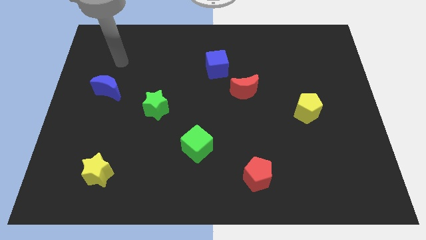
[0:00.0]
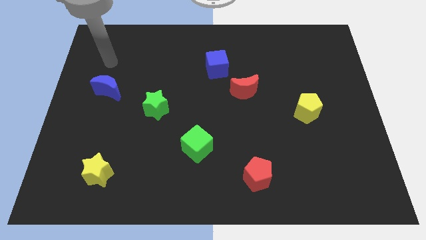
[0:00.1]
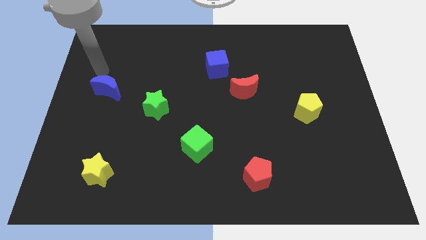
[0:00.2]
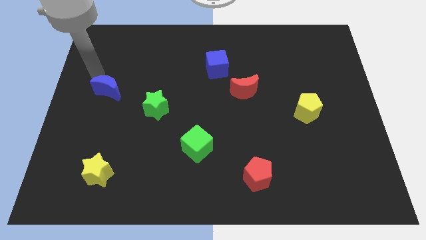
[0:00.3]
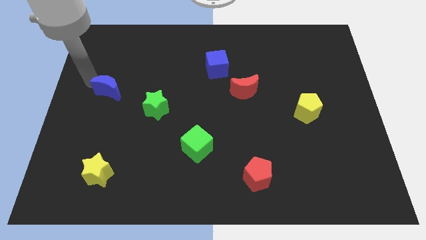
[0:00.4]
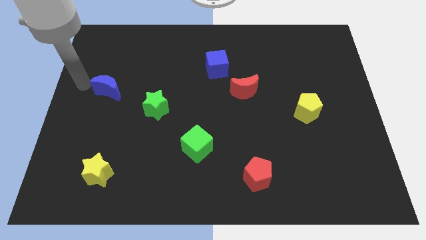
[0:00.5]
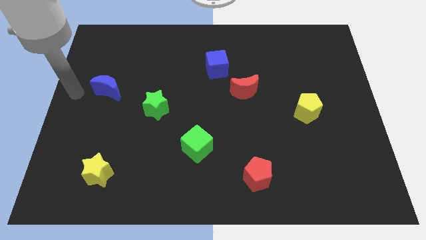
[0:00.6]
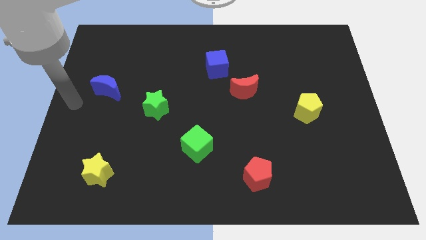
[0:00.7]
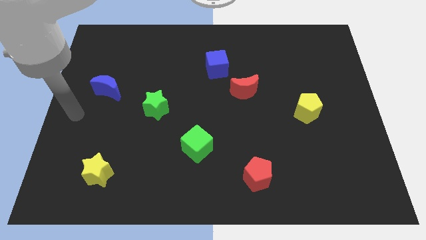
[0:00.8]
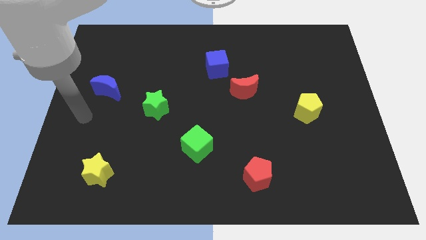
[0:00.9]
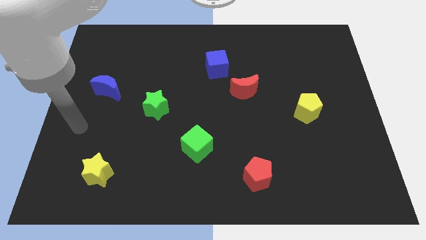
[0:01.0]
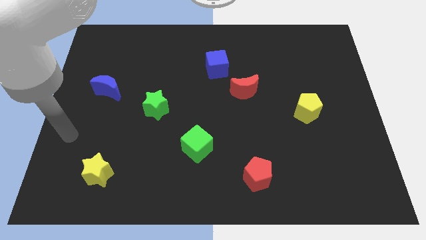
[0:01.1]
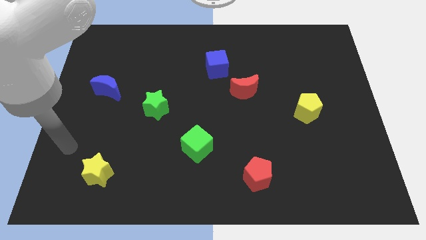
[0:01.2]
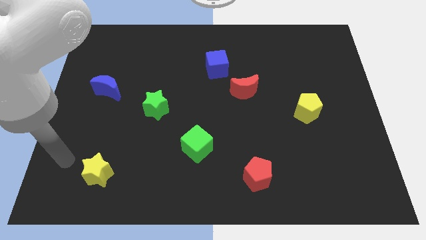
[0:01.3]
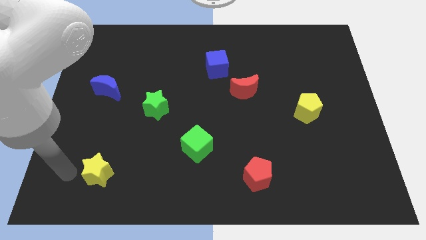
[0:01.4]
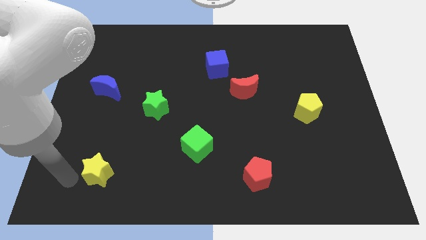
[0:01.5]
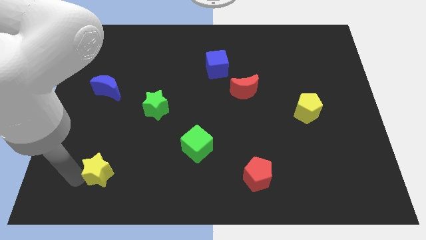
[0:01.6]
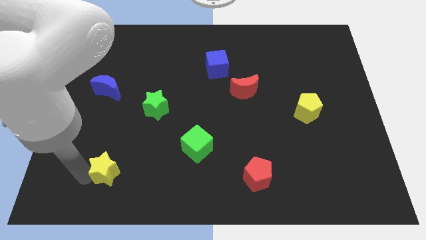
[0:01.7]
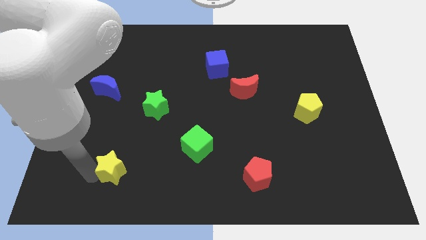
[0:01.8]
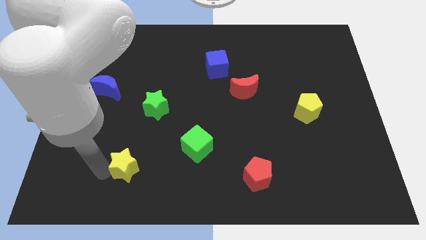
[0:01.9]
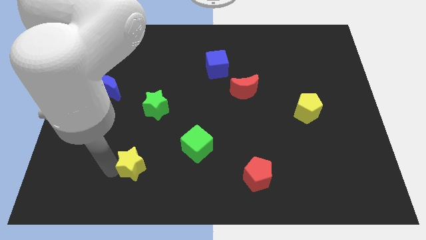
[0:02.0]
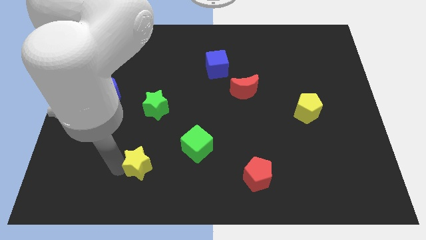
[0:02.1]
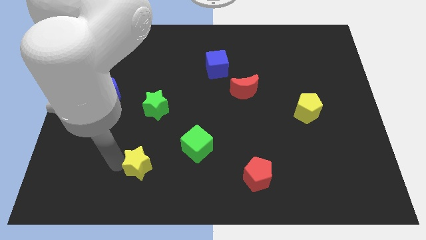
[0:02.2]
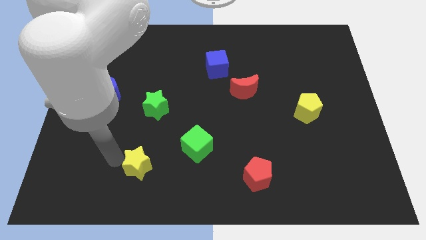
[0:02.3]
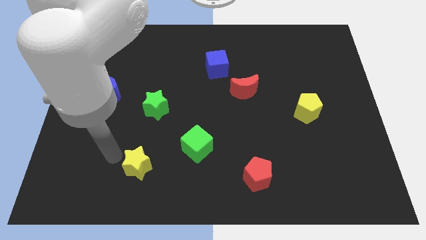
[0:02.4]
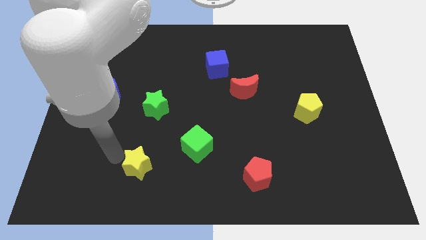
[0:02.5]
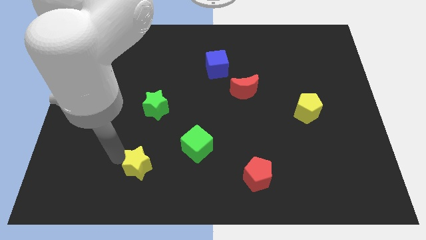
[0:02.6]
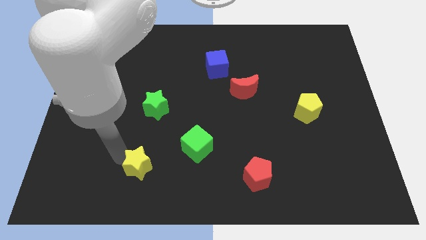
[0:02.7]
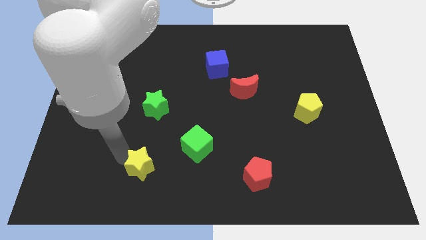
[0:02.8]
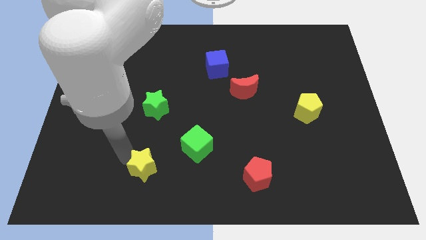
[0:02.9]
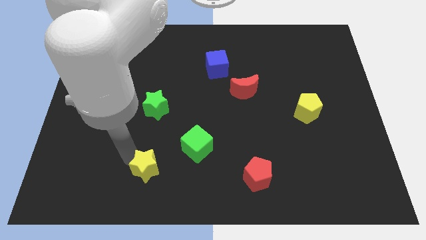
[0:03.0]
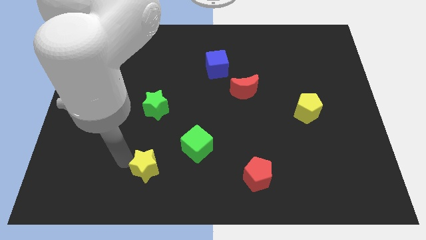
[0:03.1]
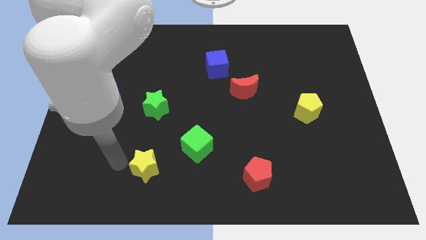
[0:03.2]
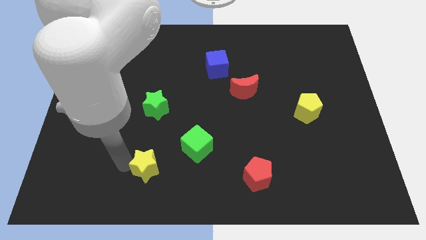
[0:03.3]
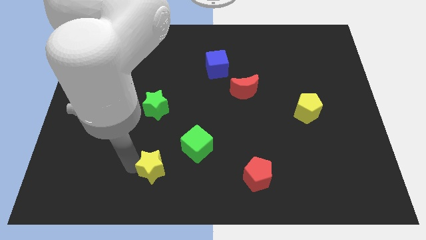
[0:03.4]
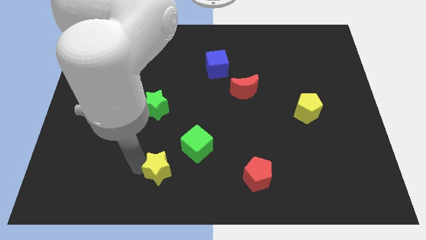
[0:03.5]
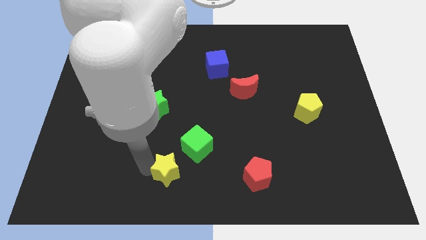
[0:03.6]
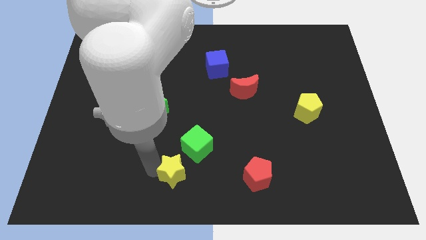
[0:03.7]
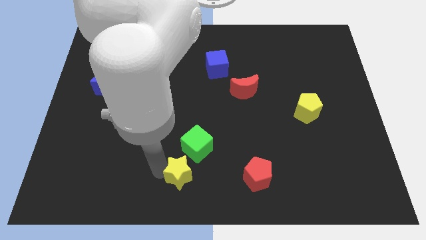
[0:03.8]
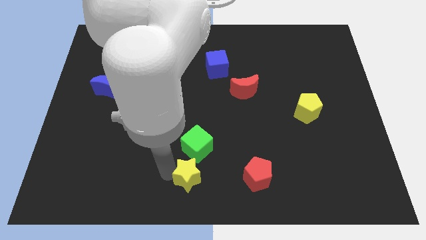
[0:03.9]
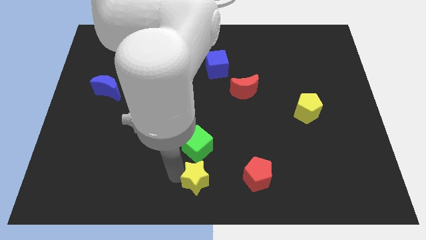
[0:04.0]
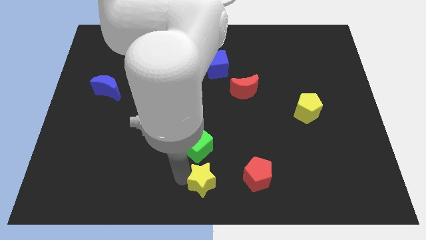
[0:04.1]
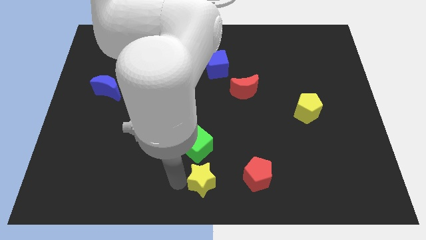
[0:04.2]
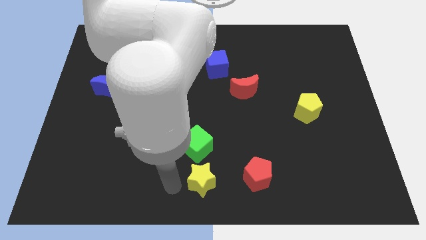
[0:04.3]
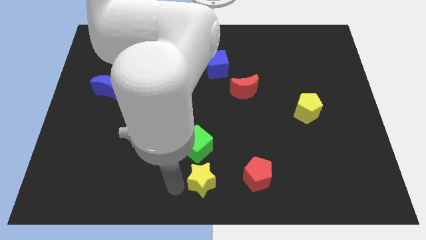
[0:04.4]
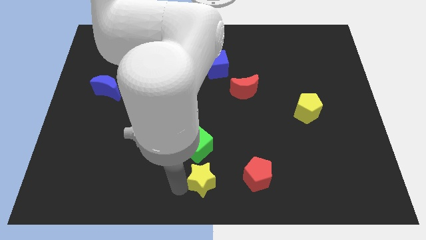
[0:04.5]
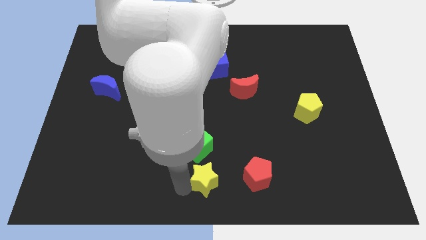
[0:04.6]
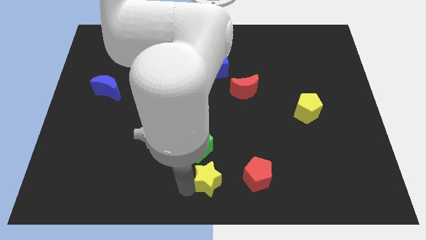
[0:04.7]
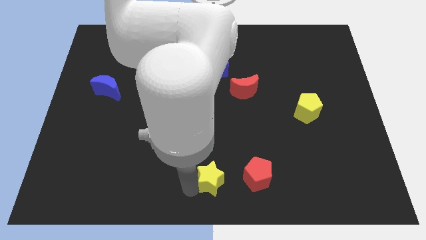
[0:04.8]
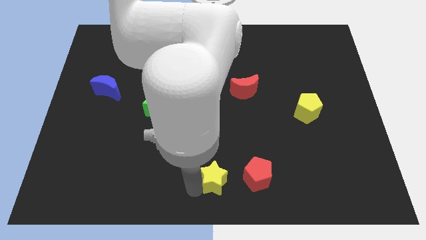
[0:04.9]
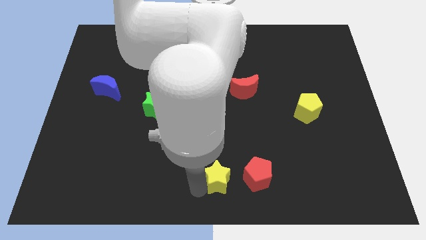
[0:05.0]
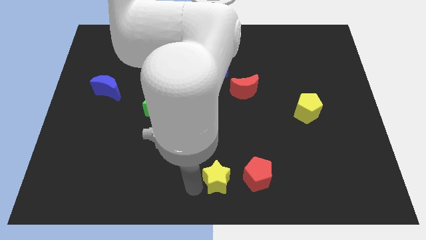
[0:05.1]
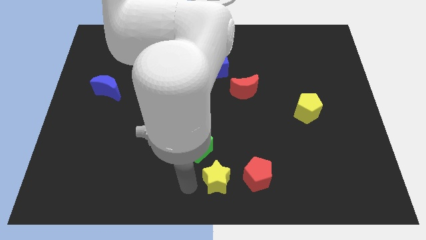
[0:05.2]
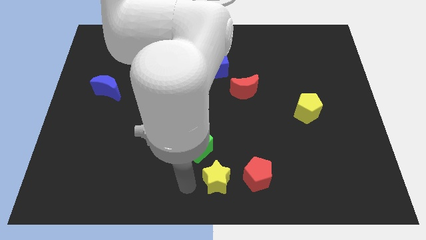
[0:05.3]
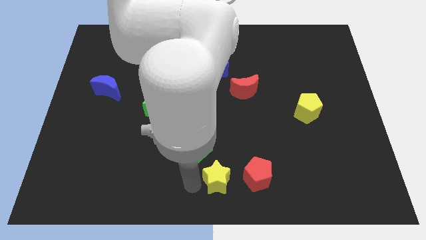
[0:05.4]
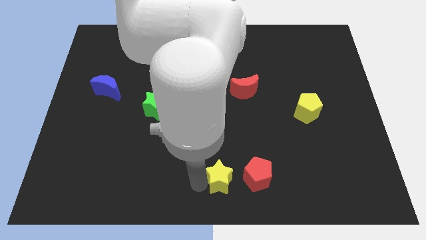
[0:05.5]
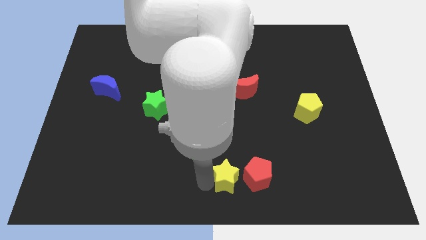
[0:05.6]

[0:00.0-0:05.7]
slide the yellow star towards the red pentagon

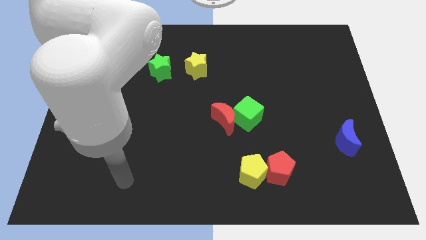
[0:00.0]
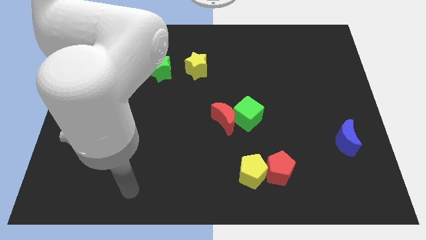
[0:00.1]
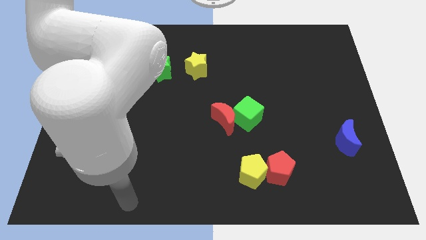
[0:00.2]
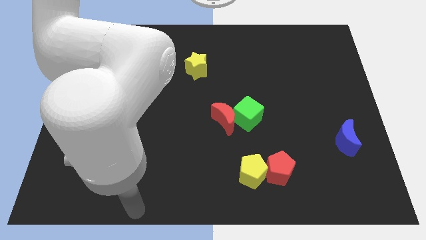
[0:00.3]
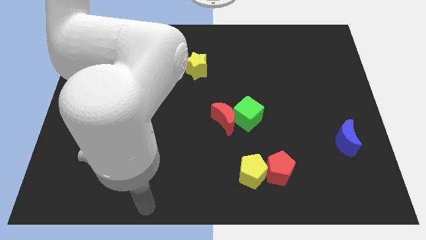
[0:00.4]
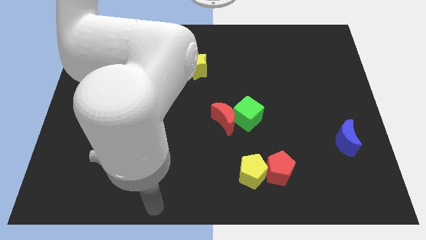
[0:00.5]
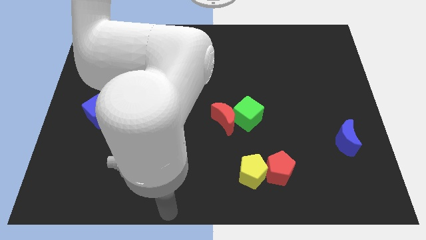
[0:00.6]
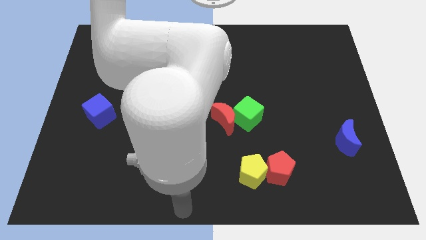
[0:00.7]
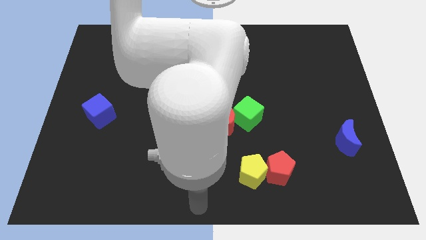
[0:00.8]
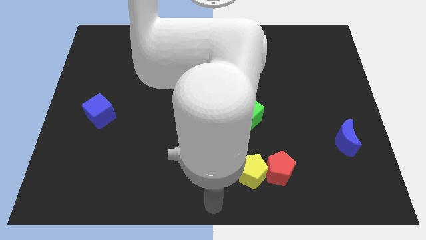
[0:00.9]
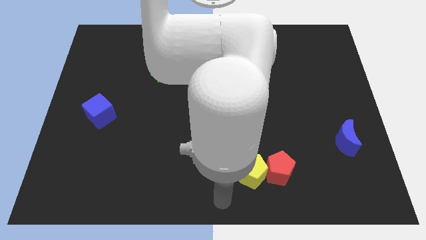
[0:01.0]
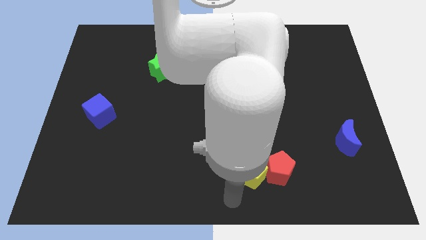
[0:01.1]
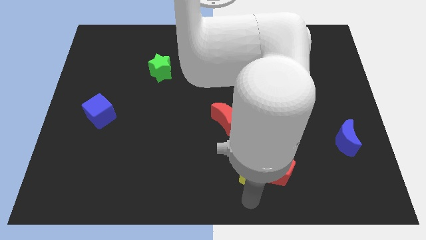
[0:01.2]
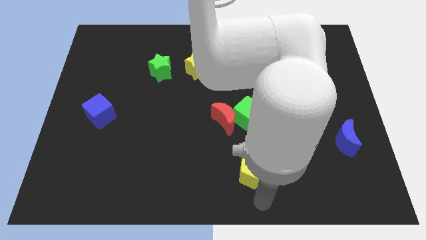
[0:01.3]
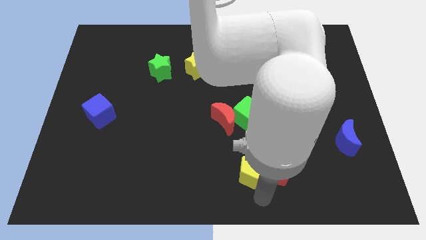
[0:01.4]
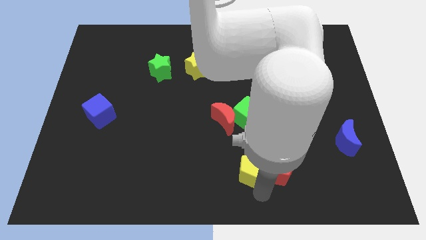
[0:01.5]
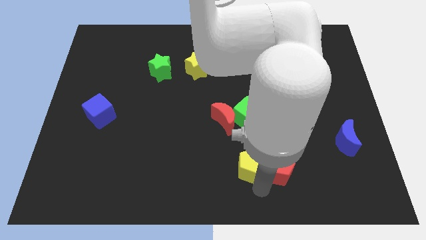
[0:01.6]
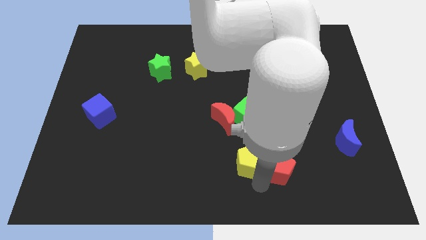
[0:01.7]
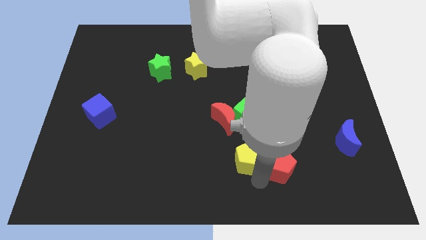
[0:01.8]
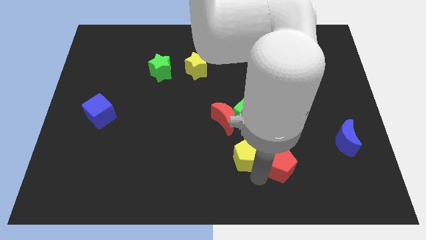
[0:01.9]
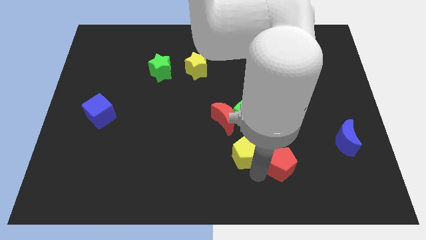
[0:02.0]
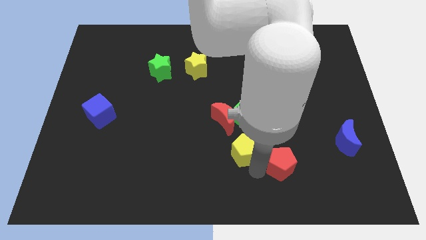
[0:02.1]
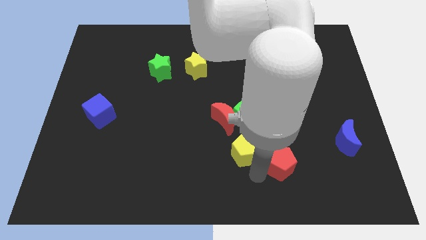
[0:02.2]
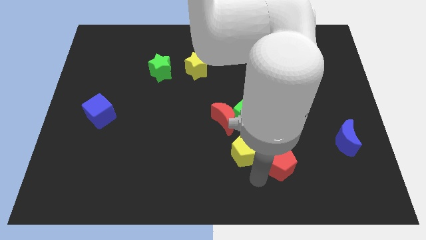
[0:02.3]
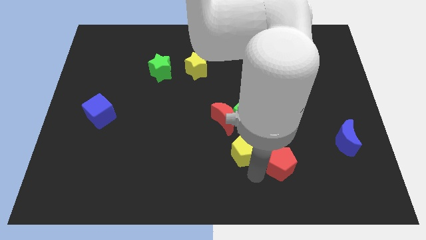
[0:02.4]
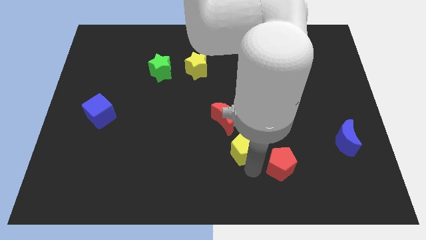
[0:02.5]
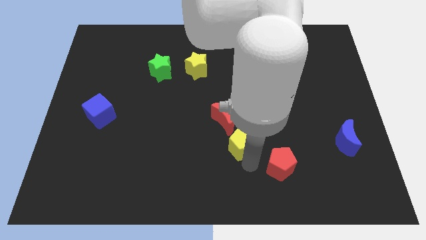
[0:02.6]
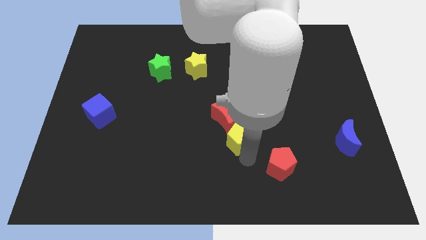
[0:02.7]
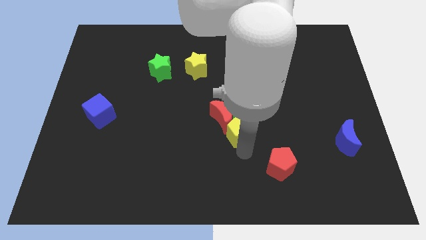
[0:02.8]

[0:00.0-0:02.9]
put the yellow pentagon close to the red moon
